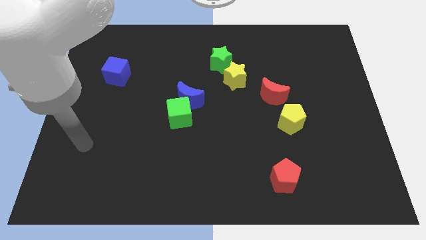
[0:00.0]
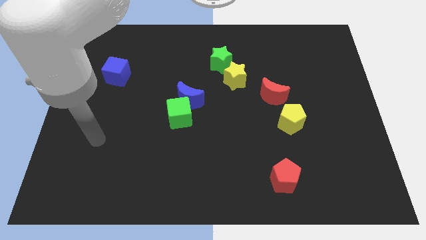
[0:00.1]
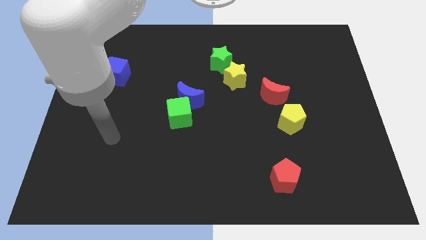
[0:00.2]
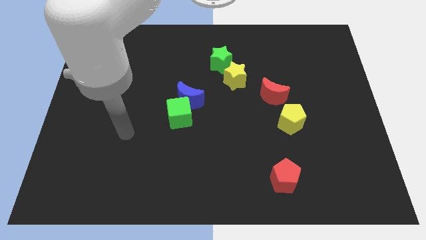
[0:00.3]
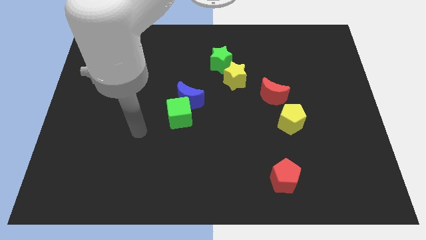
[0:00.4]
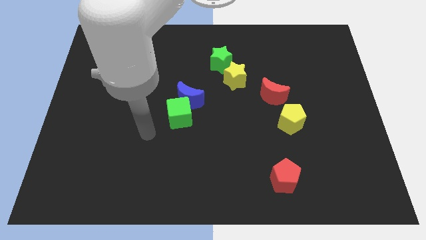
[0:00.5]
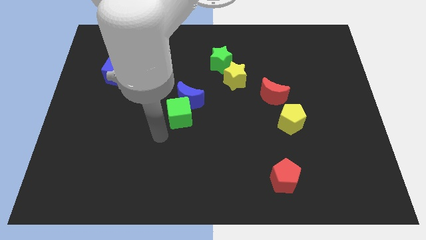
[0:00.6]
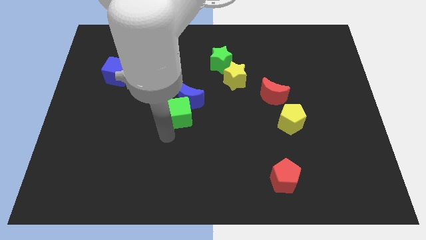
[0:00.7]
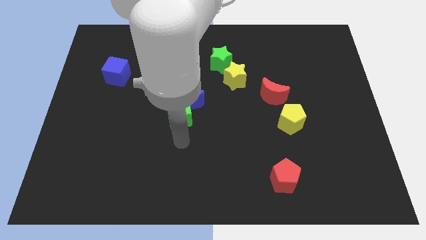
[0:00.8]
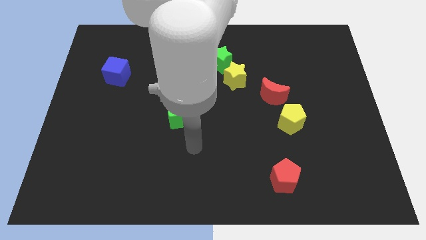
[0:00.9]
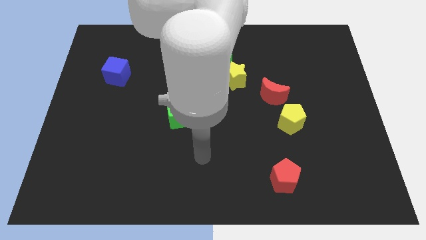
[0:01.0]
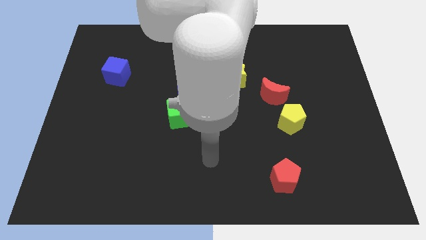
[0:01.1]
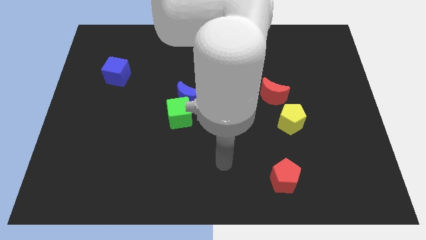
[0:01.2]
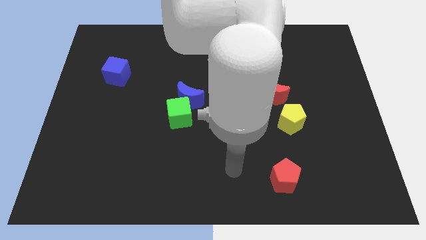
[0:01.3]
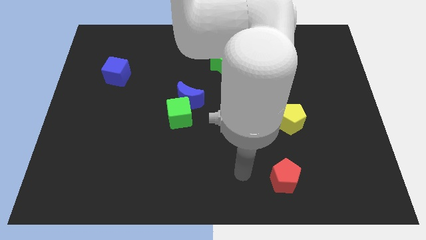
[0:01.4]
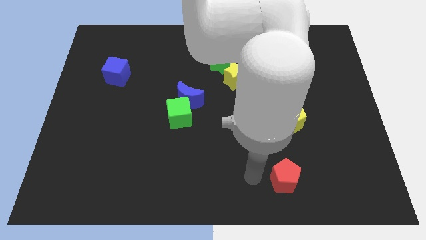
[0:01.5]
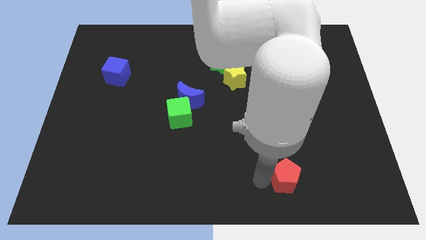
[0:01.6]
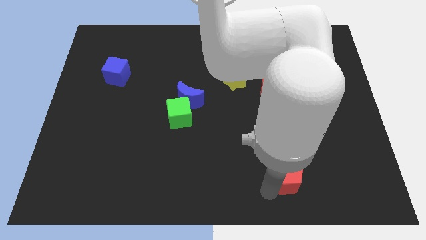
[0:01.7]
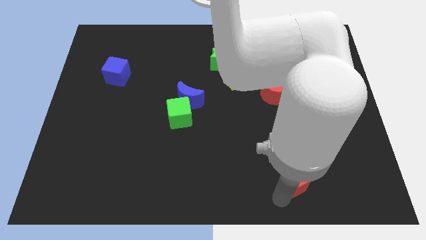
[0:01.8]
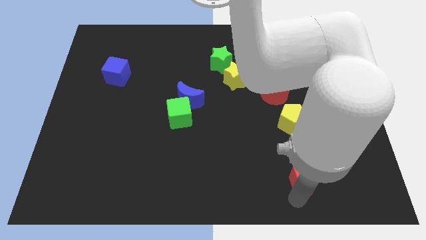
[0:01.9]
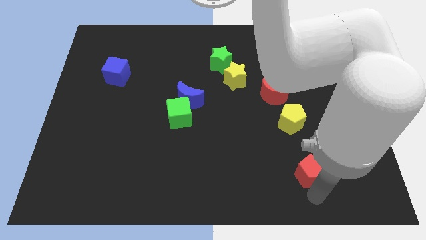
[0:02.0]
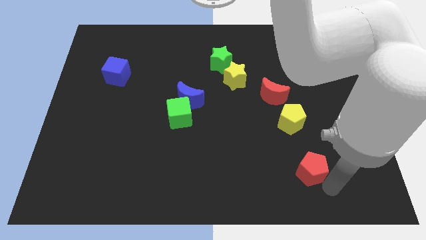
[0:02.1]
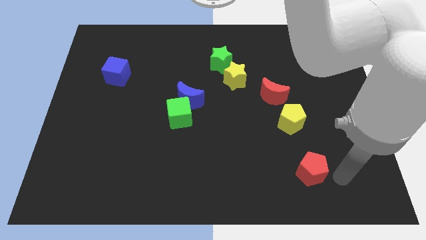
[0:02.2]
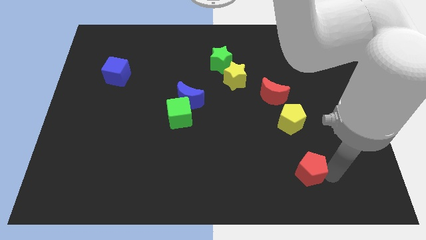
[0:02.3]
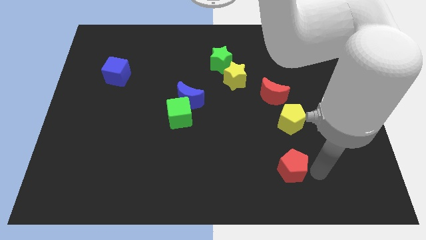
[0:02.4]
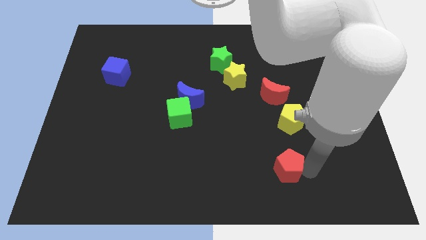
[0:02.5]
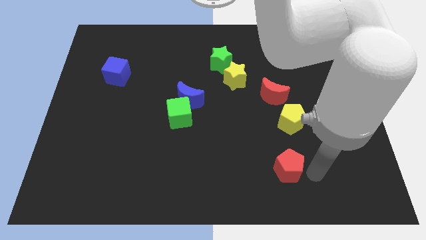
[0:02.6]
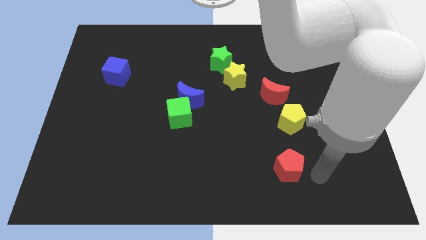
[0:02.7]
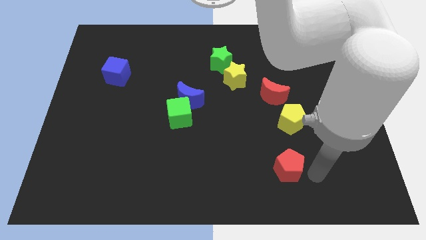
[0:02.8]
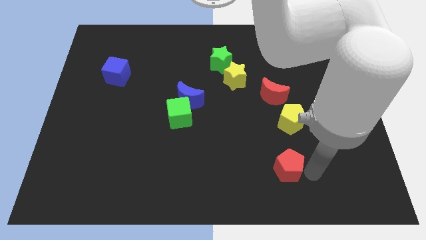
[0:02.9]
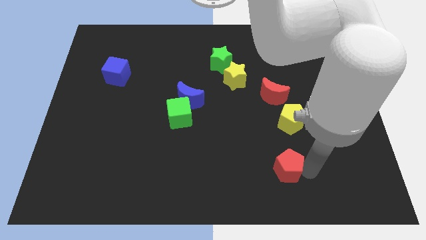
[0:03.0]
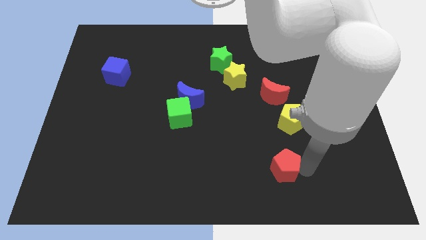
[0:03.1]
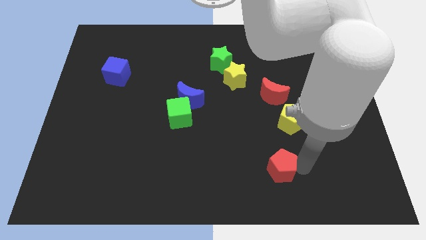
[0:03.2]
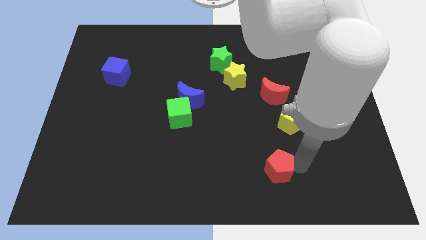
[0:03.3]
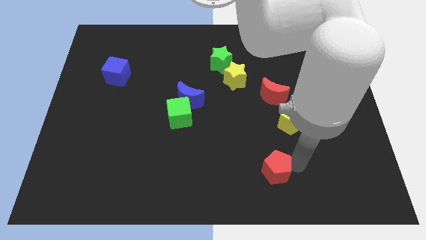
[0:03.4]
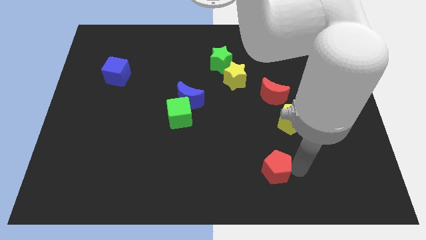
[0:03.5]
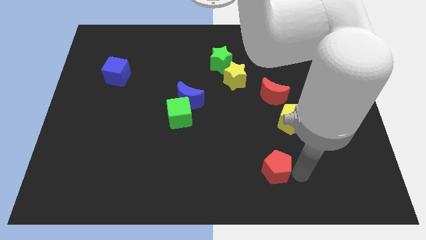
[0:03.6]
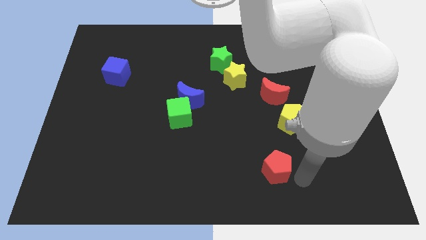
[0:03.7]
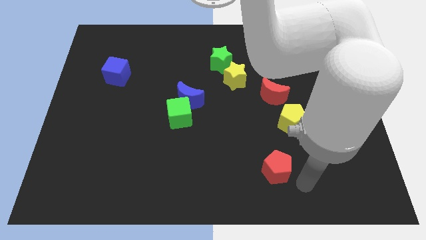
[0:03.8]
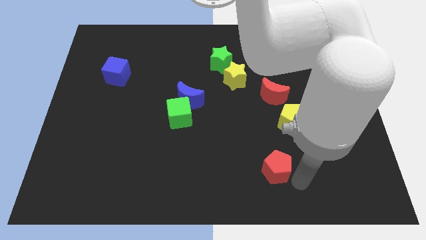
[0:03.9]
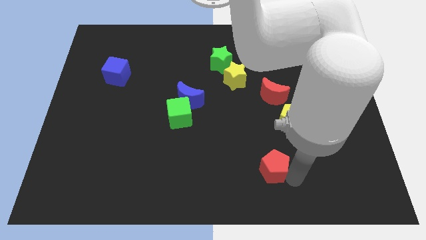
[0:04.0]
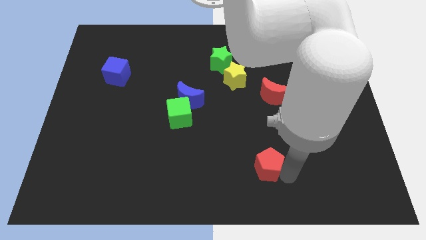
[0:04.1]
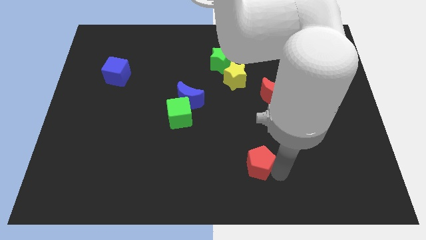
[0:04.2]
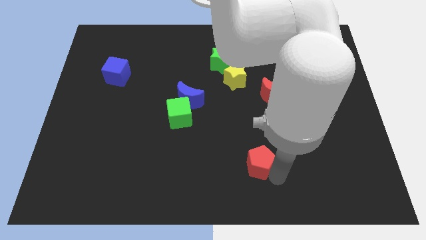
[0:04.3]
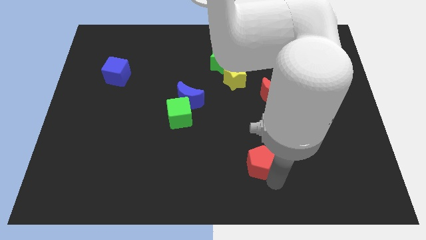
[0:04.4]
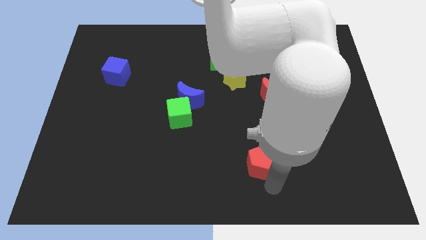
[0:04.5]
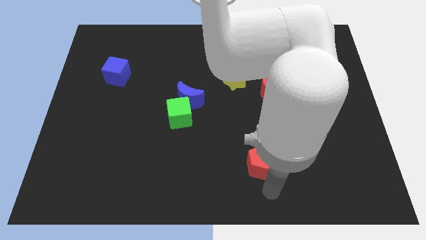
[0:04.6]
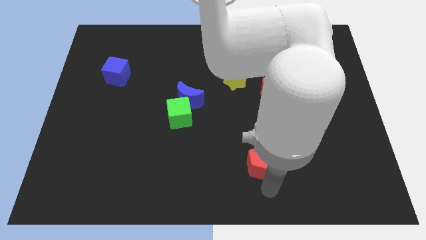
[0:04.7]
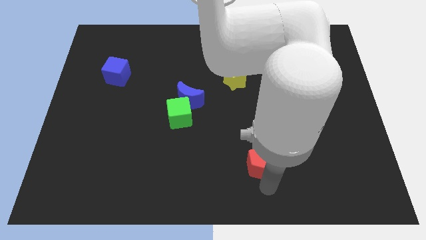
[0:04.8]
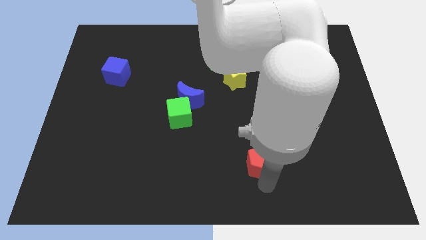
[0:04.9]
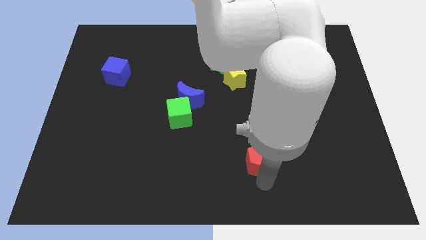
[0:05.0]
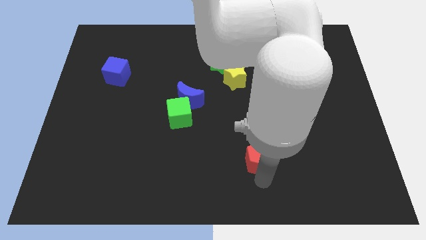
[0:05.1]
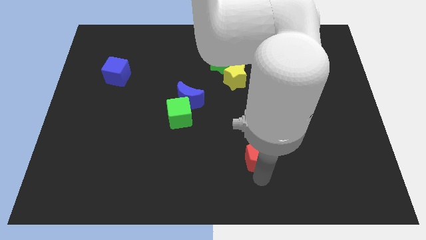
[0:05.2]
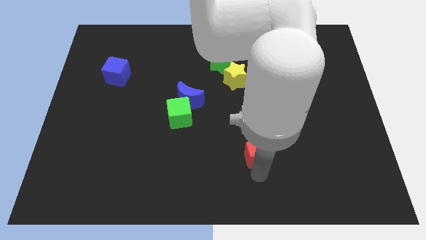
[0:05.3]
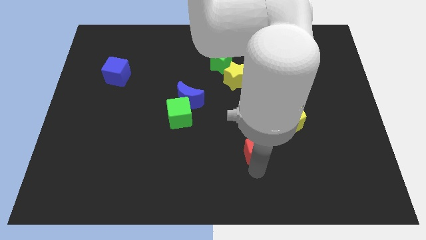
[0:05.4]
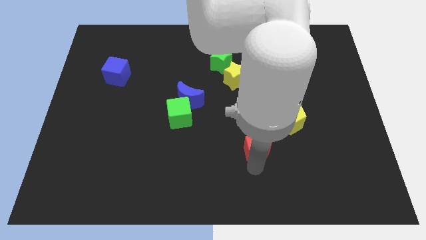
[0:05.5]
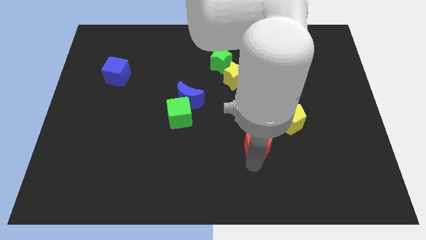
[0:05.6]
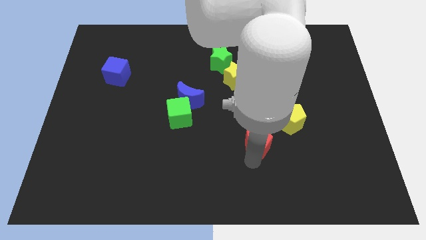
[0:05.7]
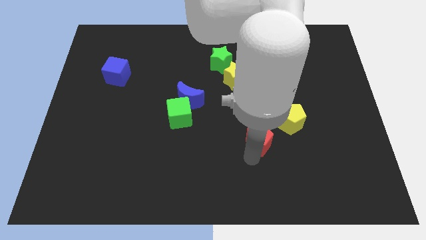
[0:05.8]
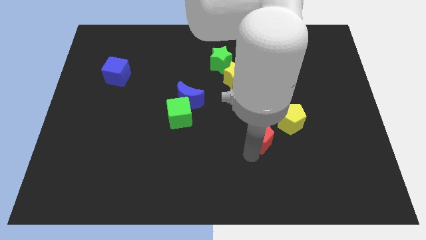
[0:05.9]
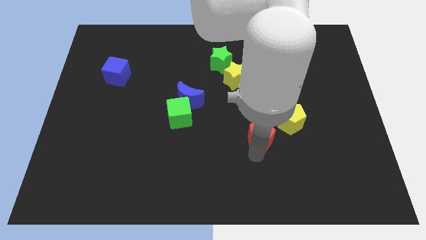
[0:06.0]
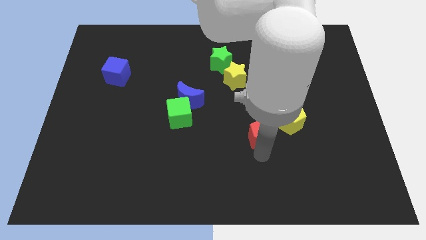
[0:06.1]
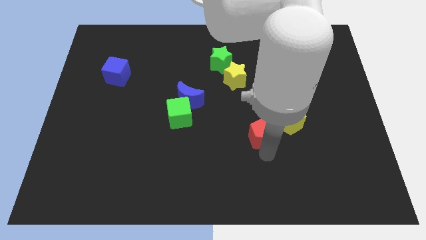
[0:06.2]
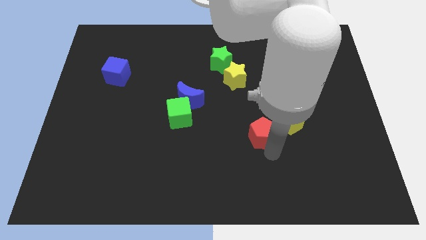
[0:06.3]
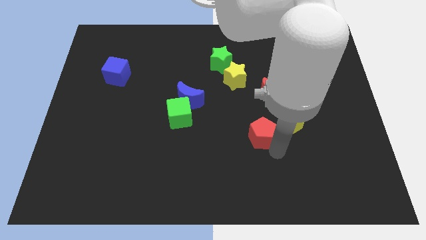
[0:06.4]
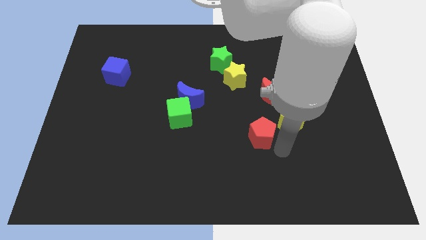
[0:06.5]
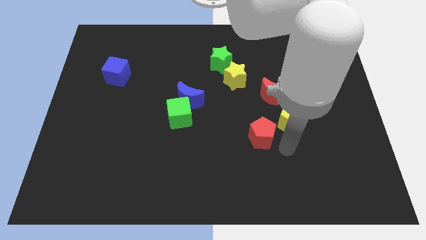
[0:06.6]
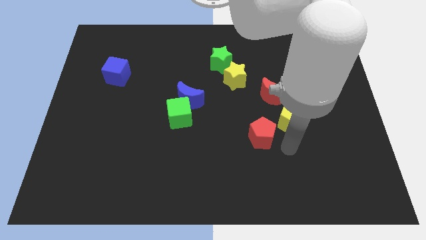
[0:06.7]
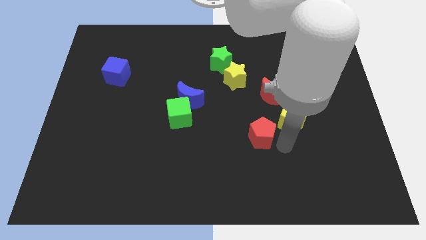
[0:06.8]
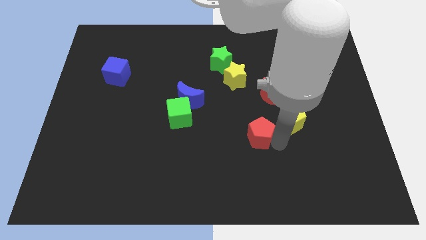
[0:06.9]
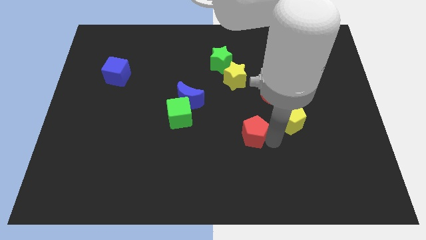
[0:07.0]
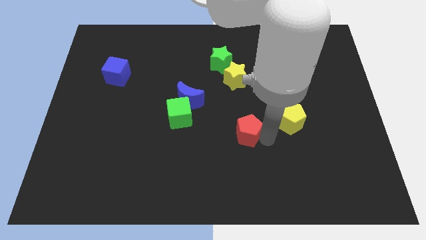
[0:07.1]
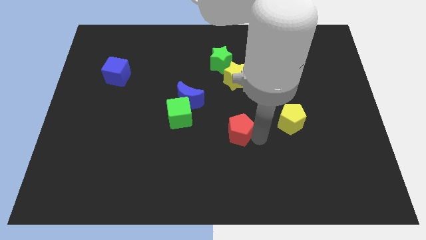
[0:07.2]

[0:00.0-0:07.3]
slide the red pentagon to the bottom of the yellow star
